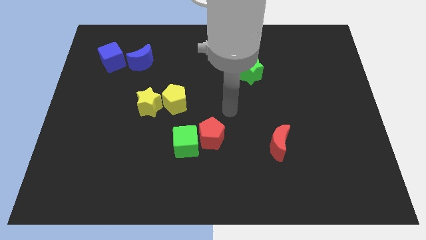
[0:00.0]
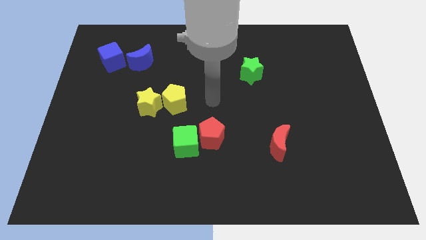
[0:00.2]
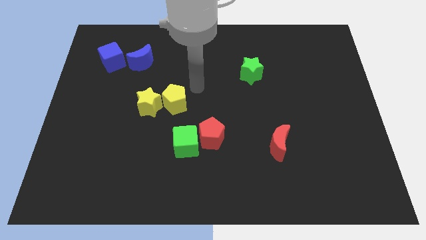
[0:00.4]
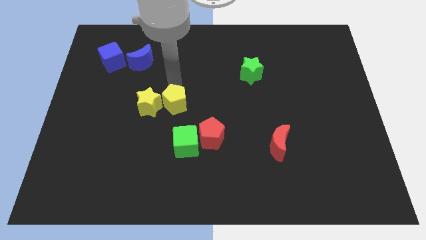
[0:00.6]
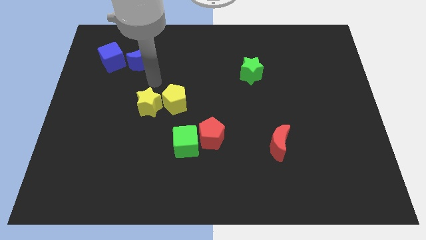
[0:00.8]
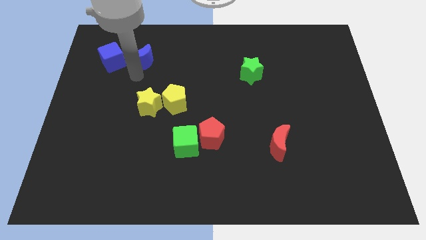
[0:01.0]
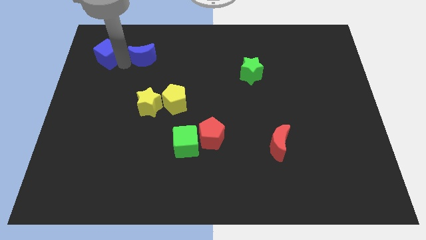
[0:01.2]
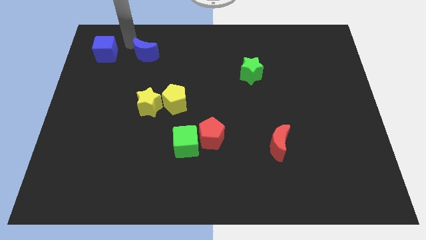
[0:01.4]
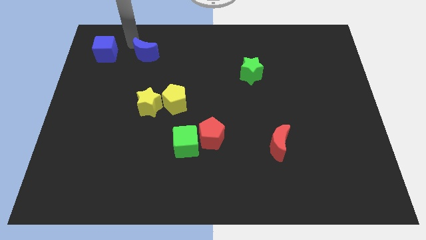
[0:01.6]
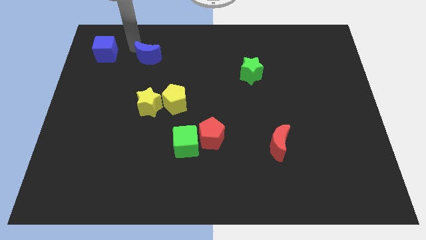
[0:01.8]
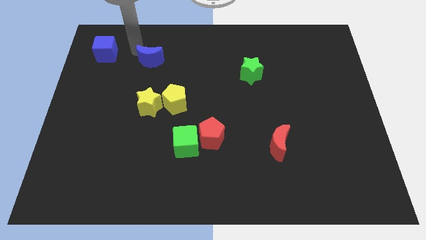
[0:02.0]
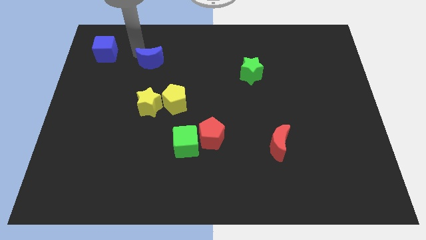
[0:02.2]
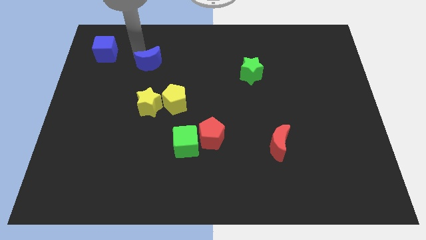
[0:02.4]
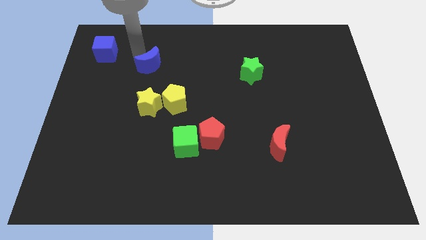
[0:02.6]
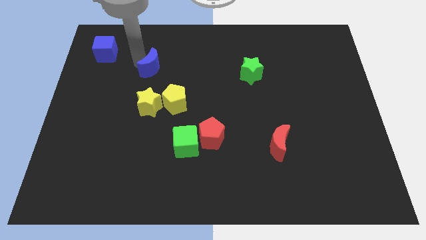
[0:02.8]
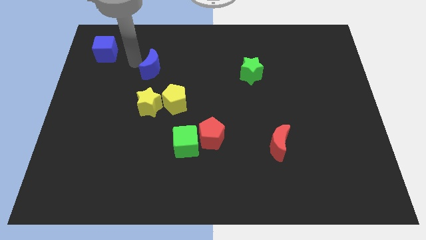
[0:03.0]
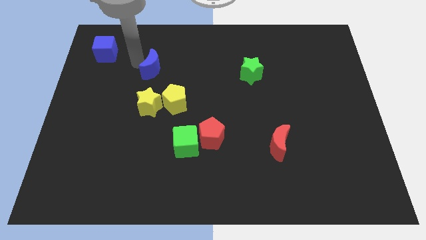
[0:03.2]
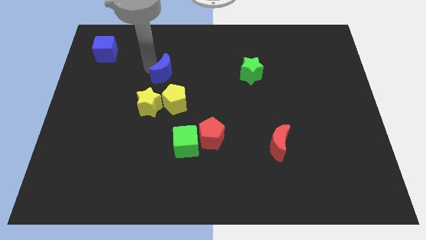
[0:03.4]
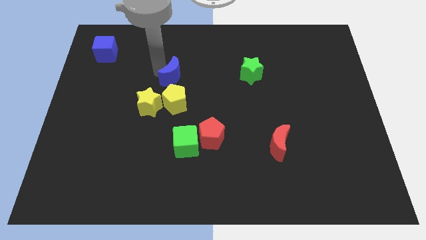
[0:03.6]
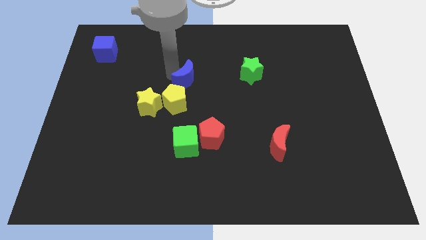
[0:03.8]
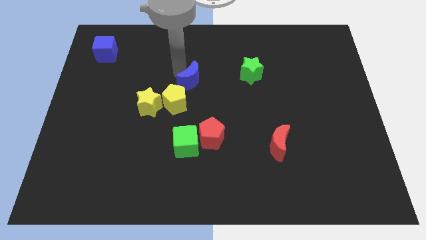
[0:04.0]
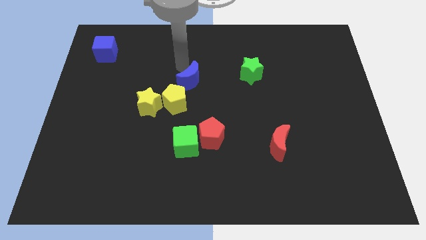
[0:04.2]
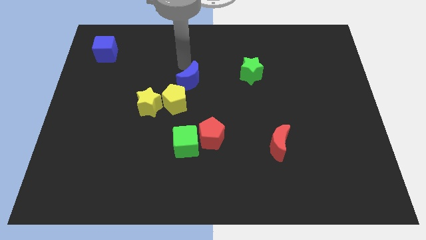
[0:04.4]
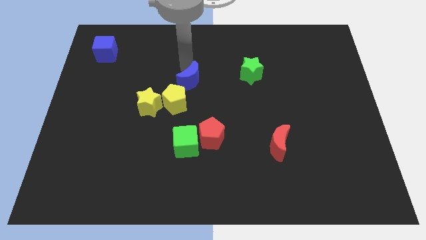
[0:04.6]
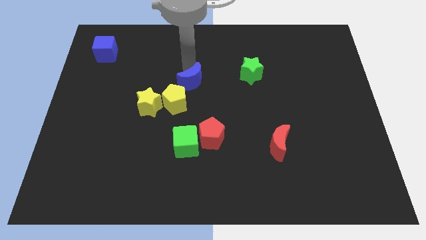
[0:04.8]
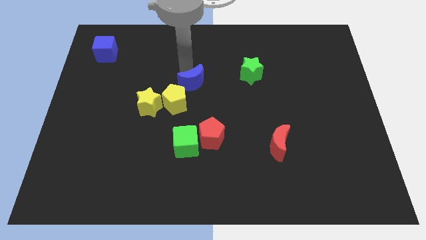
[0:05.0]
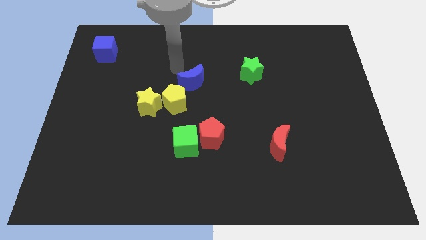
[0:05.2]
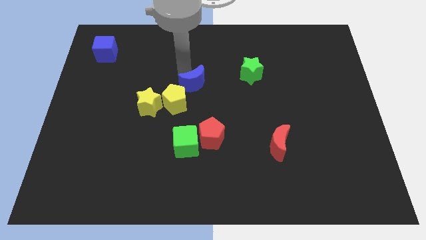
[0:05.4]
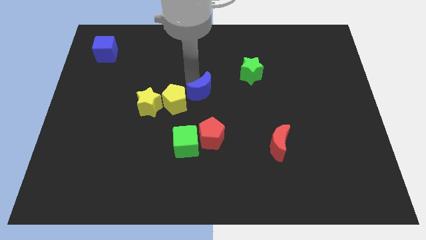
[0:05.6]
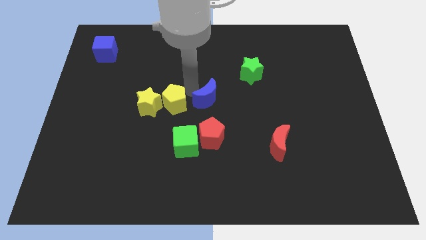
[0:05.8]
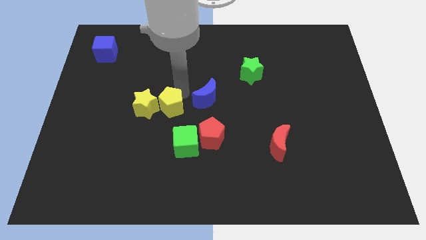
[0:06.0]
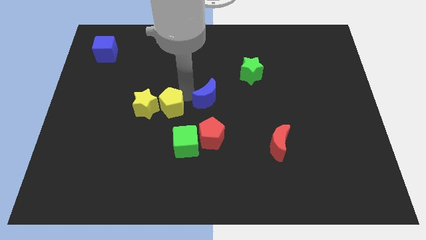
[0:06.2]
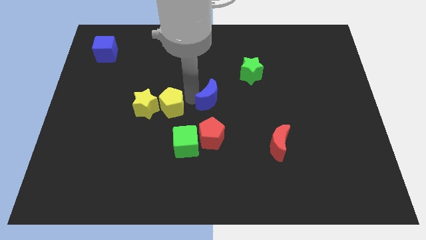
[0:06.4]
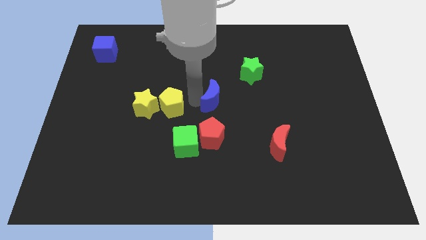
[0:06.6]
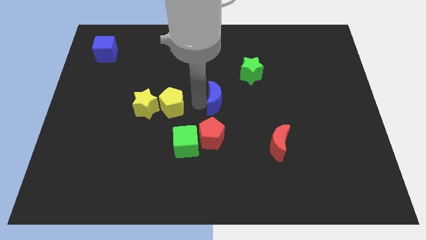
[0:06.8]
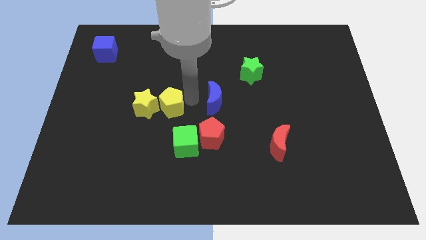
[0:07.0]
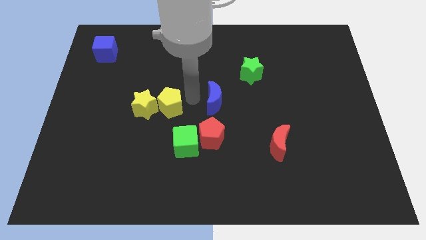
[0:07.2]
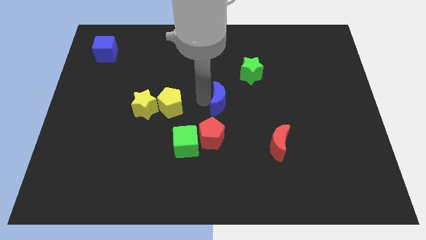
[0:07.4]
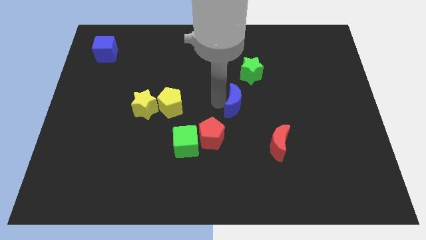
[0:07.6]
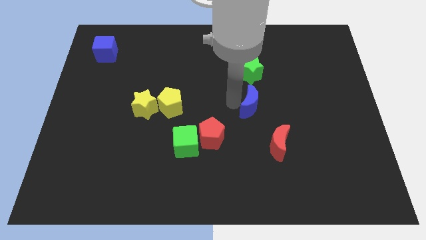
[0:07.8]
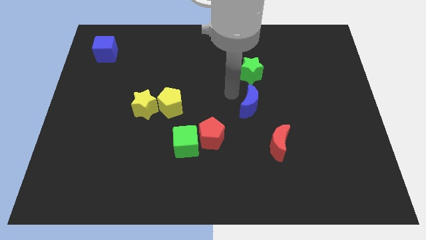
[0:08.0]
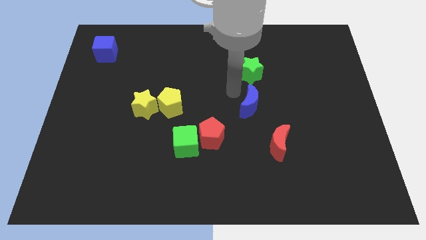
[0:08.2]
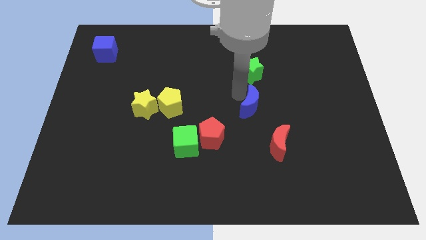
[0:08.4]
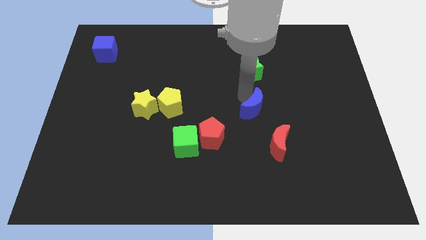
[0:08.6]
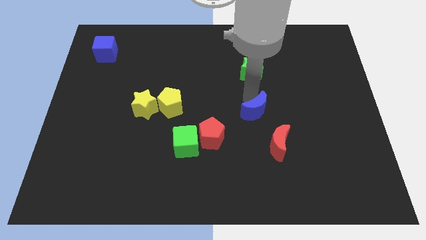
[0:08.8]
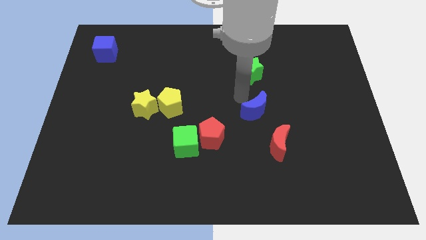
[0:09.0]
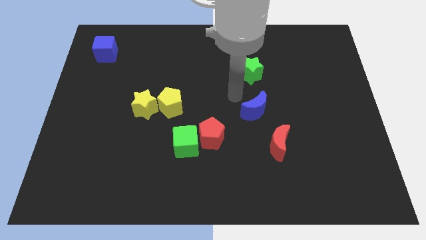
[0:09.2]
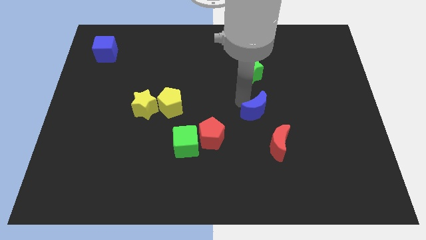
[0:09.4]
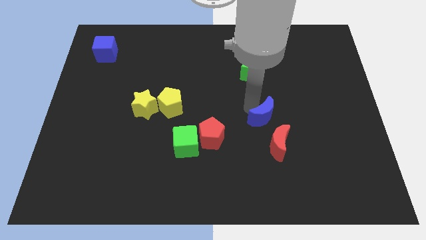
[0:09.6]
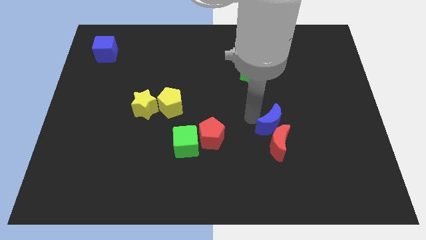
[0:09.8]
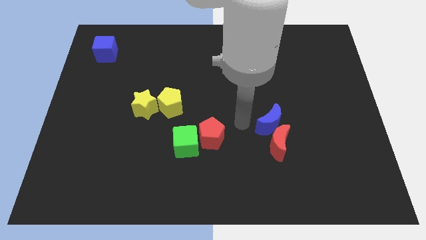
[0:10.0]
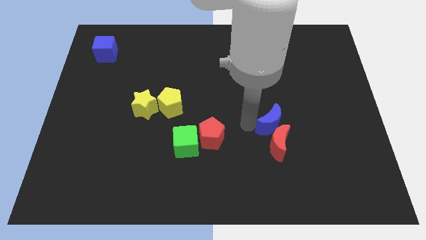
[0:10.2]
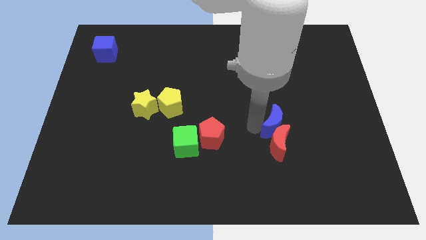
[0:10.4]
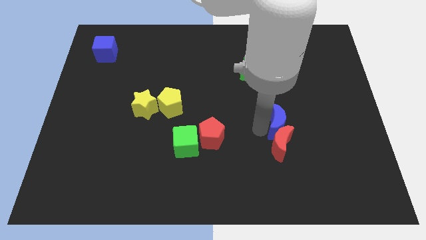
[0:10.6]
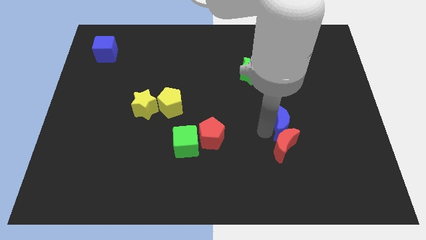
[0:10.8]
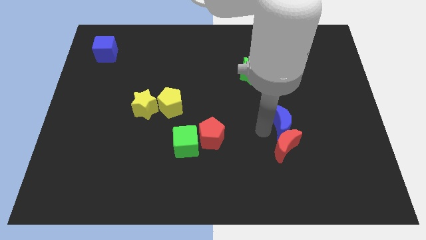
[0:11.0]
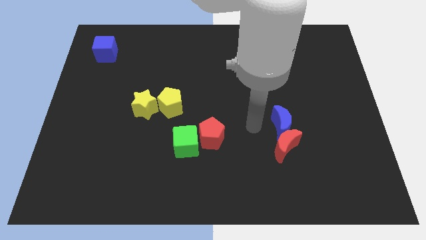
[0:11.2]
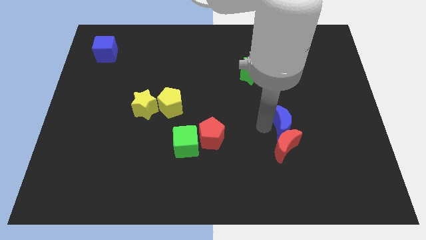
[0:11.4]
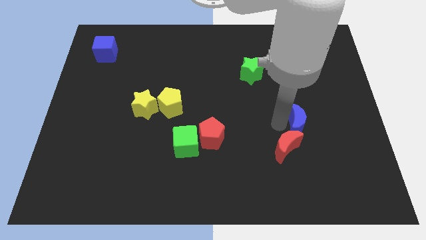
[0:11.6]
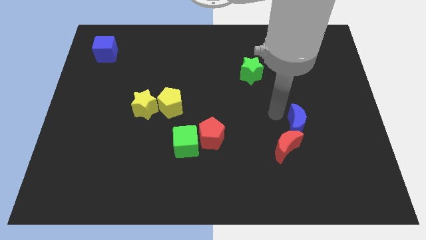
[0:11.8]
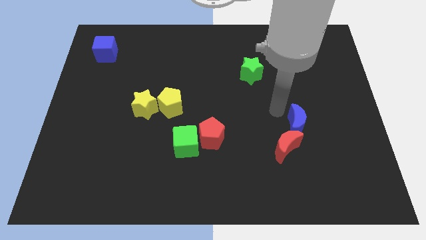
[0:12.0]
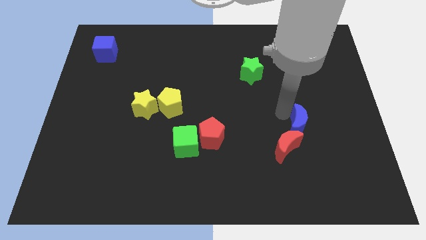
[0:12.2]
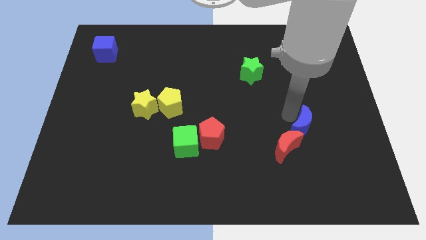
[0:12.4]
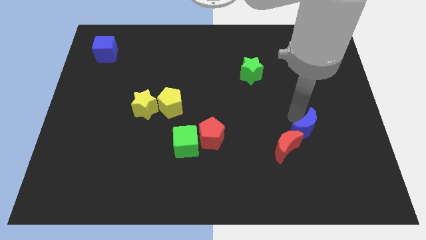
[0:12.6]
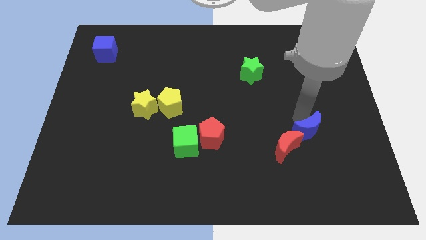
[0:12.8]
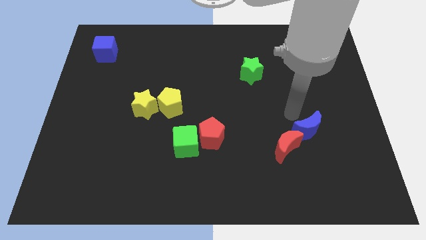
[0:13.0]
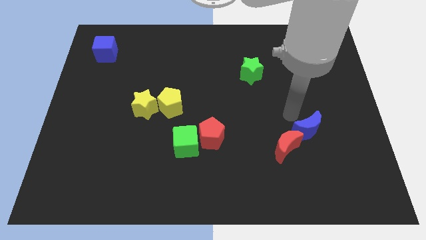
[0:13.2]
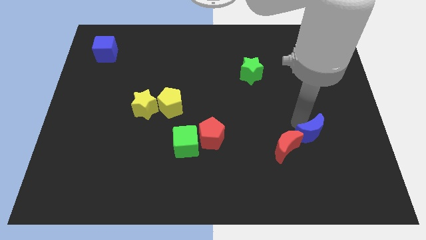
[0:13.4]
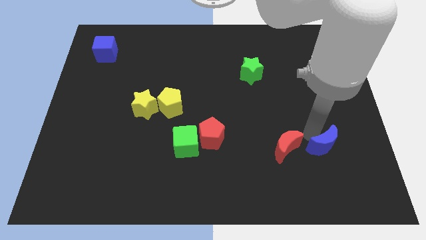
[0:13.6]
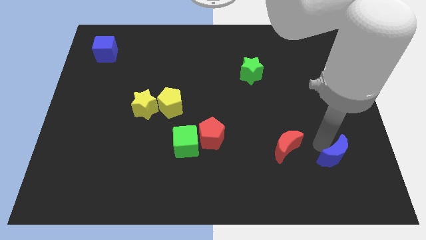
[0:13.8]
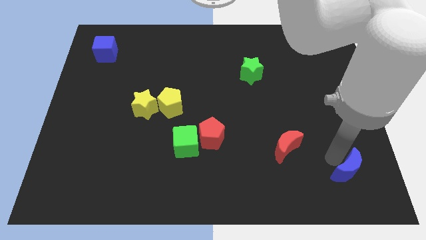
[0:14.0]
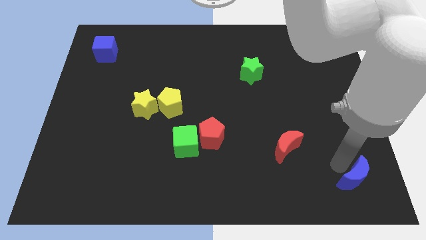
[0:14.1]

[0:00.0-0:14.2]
slide the blue moon to the bottom right corner
